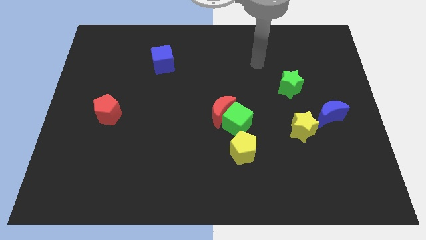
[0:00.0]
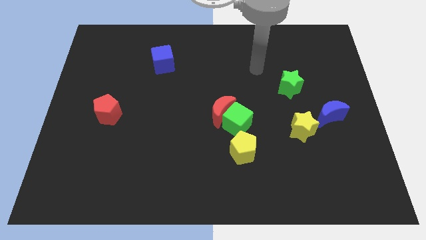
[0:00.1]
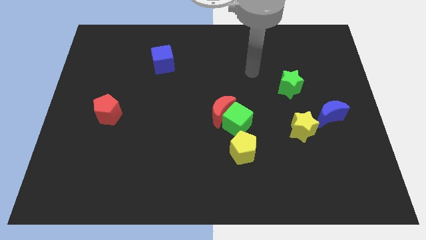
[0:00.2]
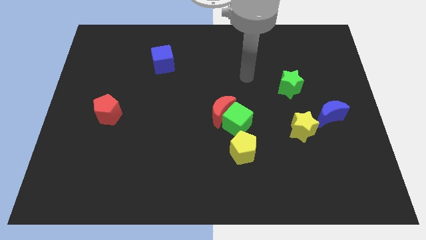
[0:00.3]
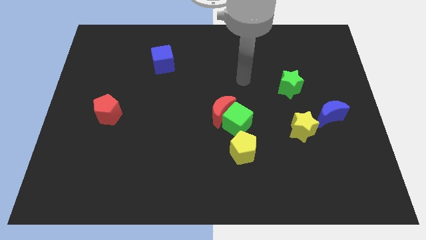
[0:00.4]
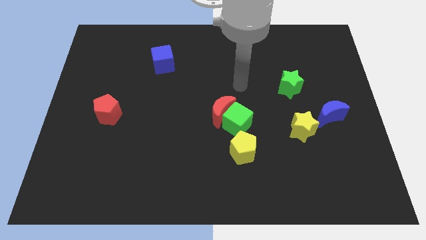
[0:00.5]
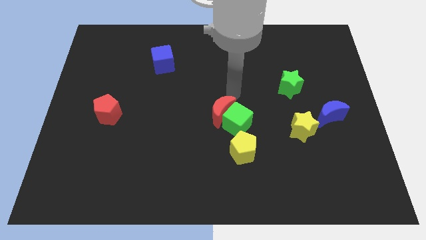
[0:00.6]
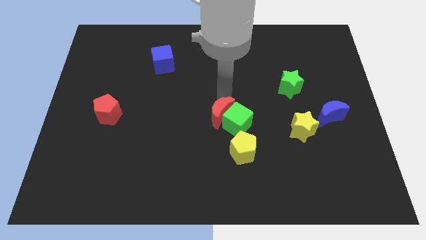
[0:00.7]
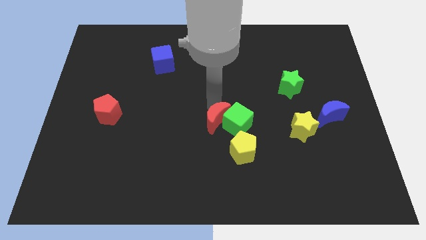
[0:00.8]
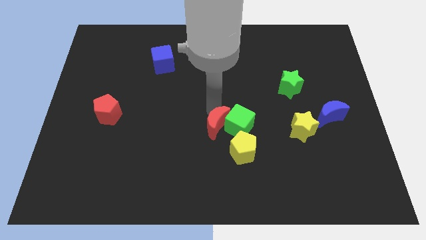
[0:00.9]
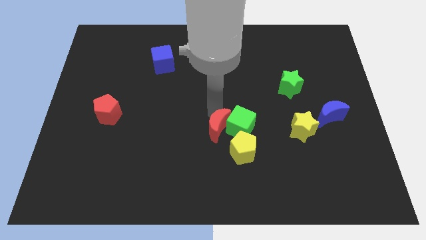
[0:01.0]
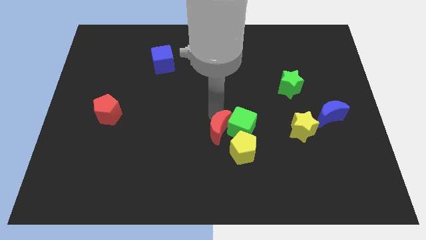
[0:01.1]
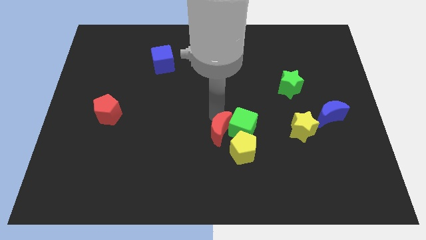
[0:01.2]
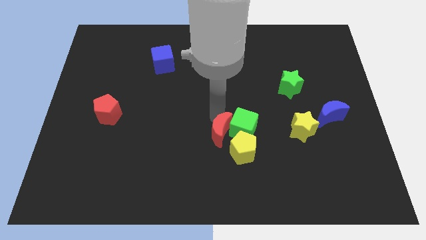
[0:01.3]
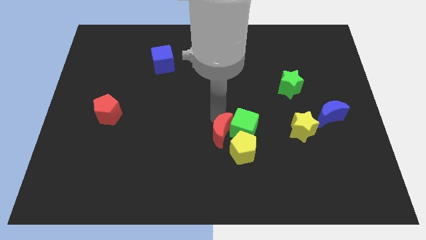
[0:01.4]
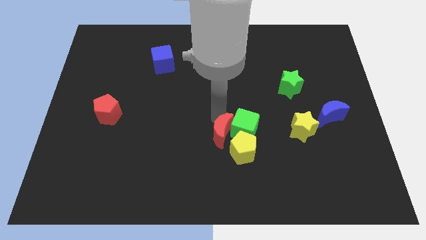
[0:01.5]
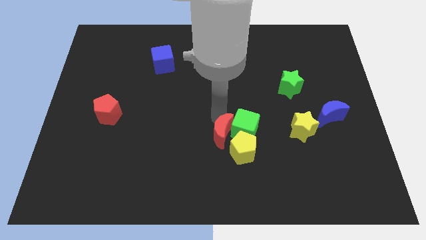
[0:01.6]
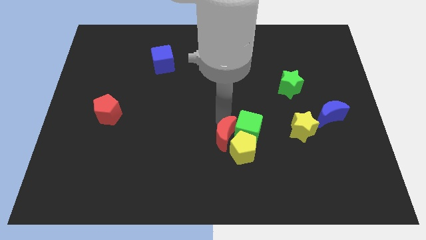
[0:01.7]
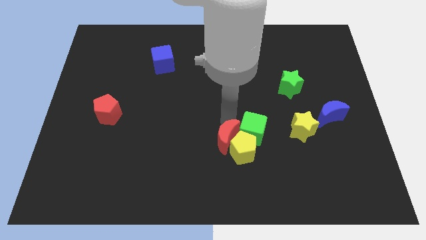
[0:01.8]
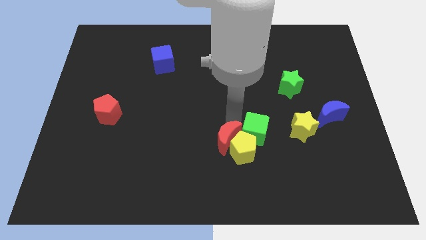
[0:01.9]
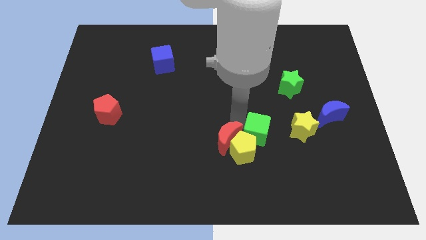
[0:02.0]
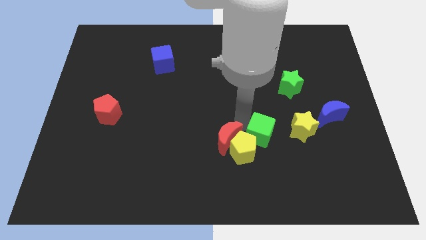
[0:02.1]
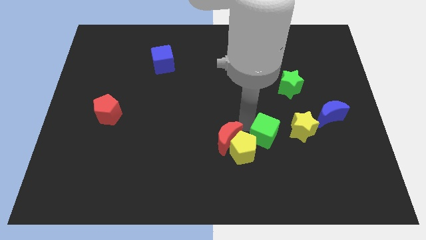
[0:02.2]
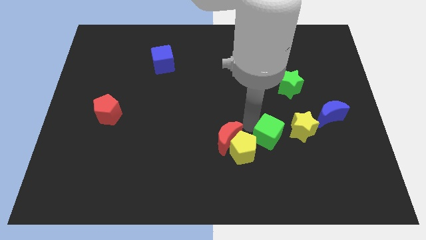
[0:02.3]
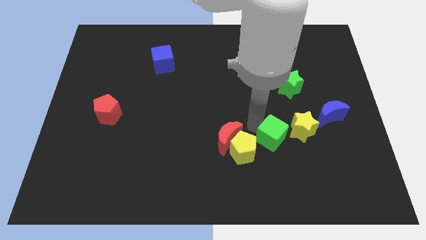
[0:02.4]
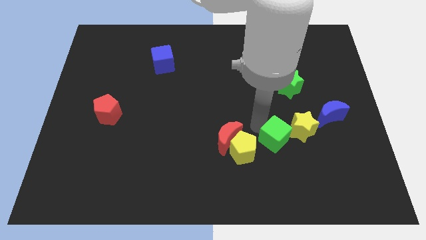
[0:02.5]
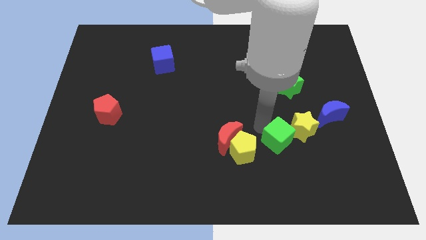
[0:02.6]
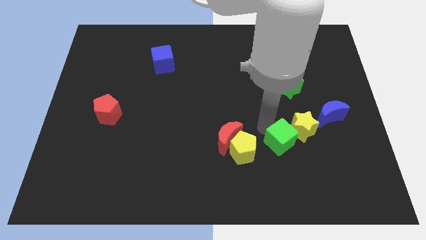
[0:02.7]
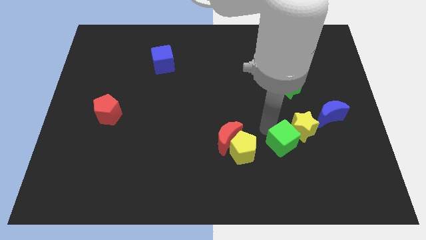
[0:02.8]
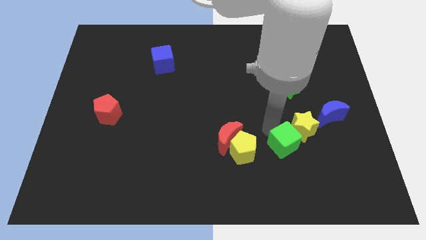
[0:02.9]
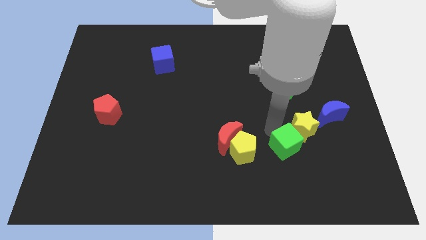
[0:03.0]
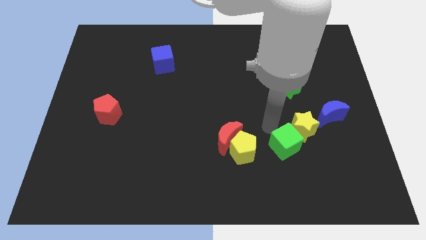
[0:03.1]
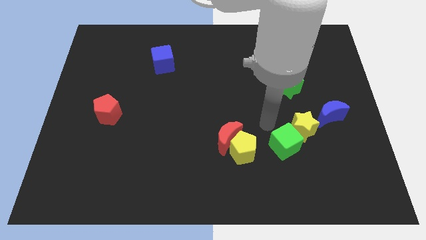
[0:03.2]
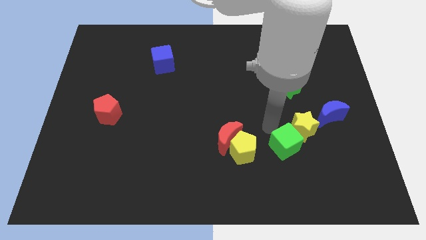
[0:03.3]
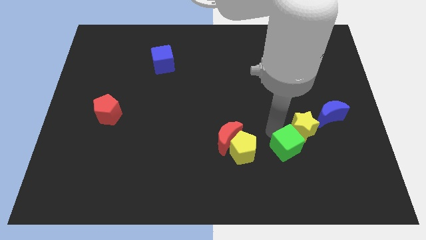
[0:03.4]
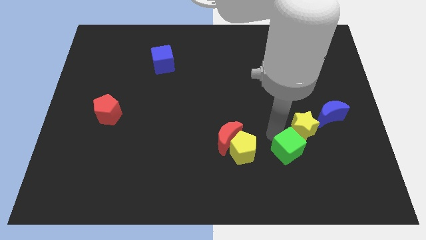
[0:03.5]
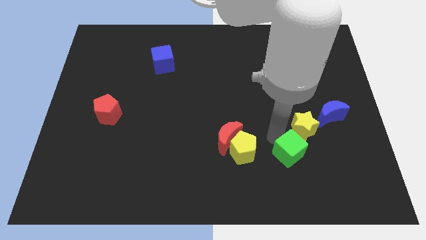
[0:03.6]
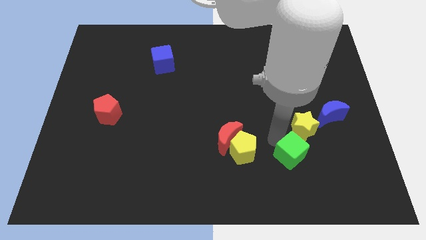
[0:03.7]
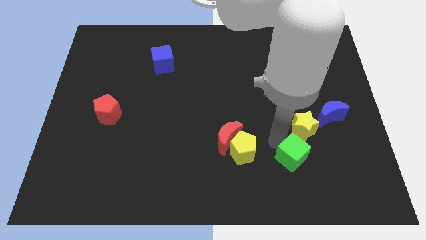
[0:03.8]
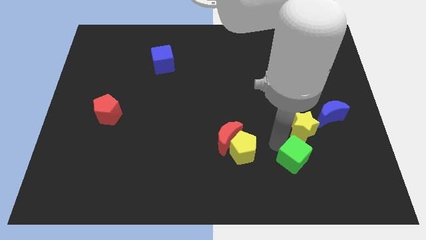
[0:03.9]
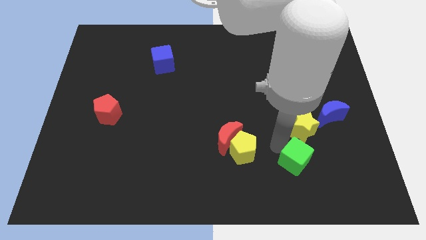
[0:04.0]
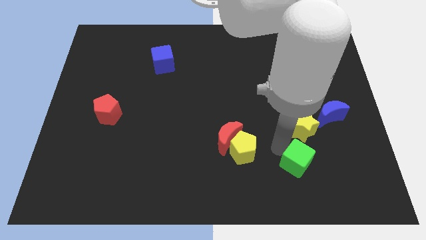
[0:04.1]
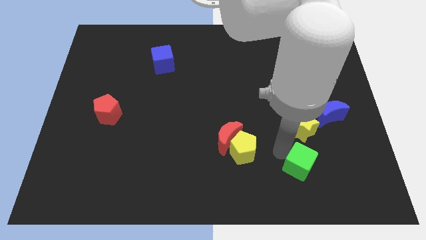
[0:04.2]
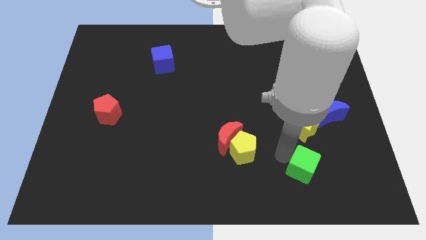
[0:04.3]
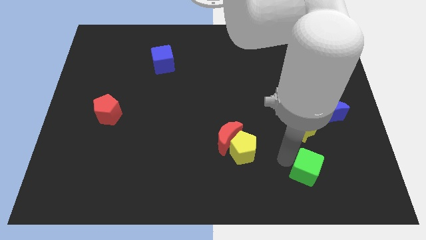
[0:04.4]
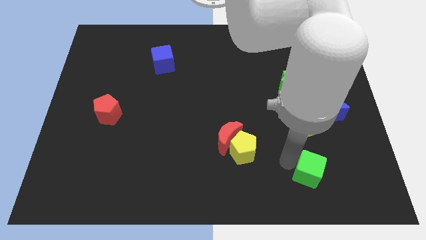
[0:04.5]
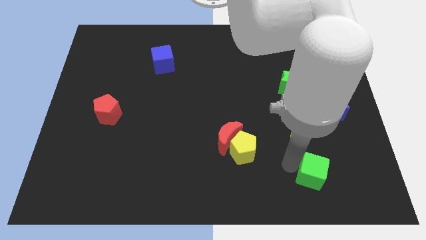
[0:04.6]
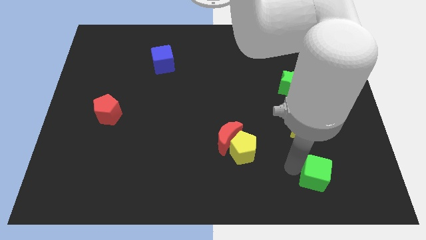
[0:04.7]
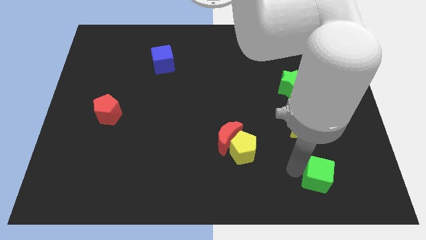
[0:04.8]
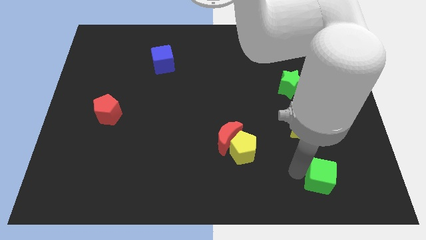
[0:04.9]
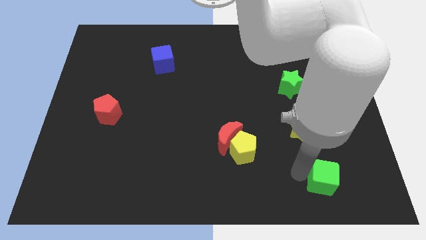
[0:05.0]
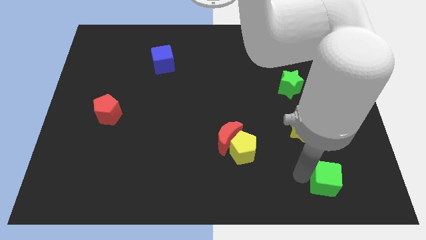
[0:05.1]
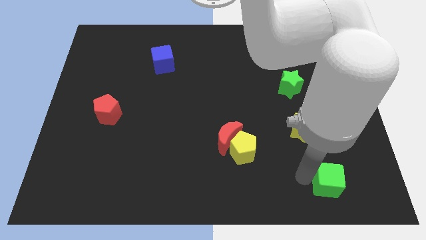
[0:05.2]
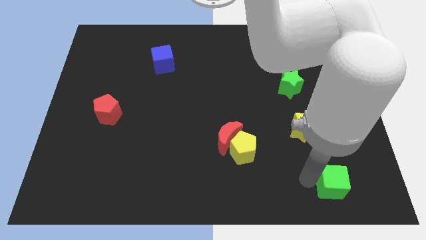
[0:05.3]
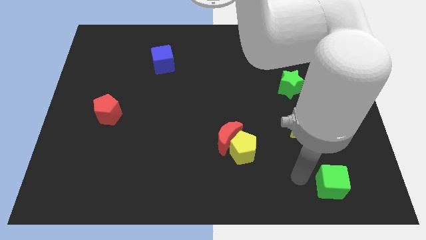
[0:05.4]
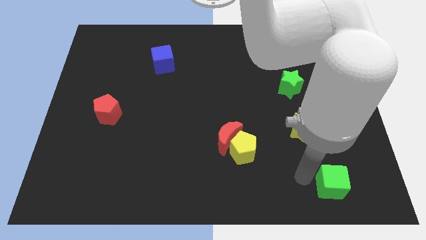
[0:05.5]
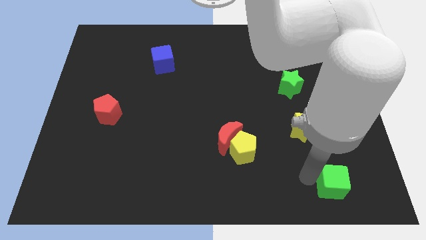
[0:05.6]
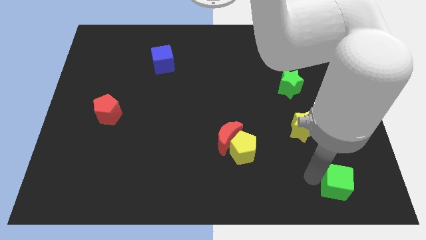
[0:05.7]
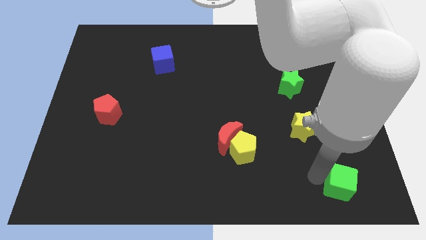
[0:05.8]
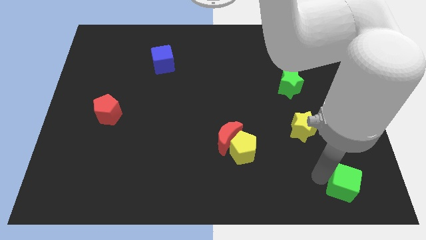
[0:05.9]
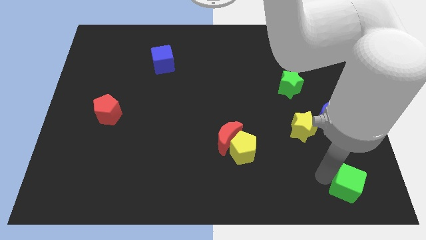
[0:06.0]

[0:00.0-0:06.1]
put the green cube to the lower right corner
